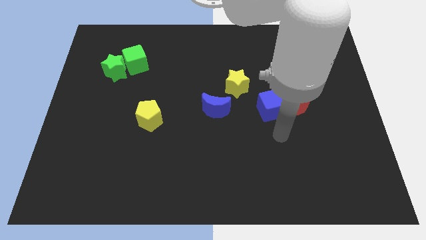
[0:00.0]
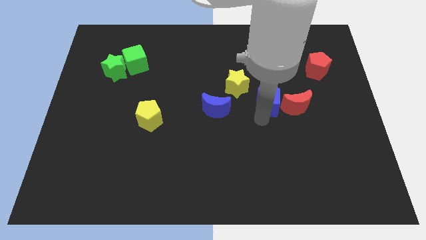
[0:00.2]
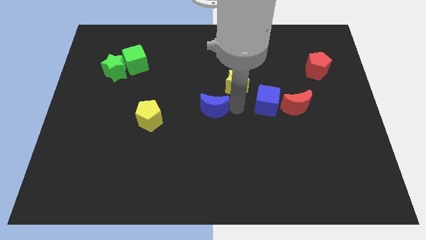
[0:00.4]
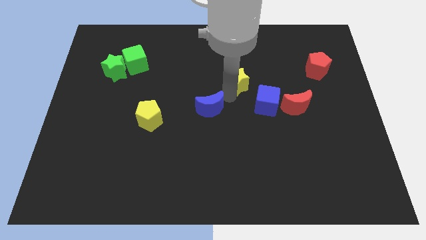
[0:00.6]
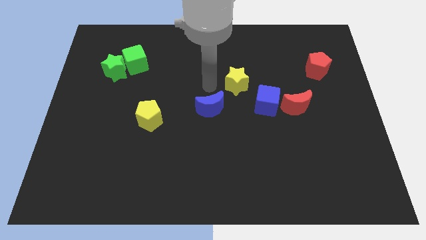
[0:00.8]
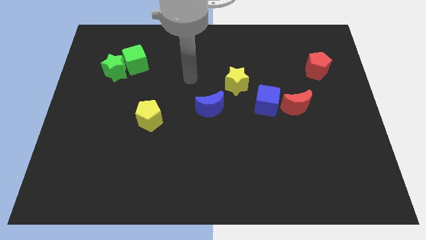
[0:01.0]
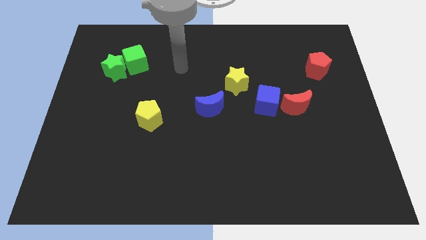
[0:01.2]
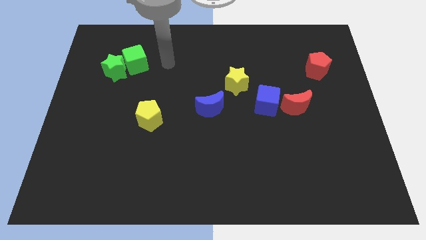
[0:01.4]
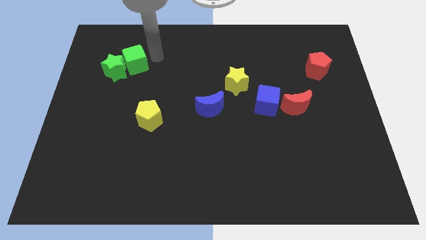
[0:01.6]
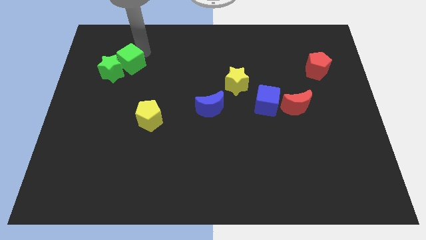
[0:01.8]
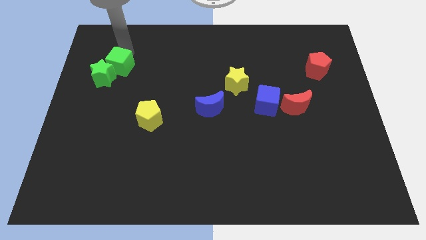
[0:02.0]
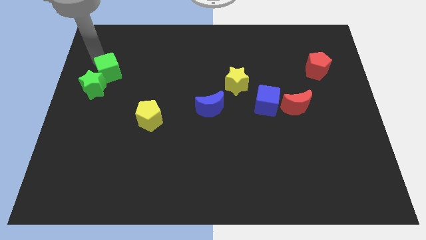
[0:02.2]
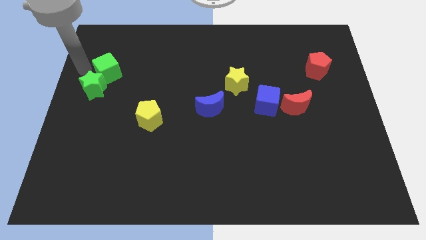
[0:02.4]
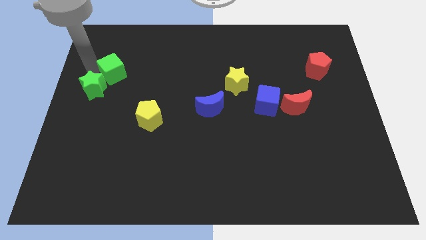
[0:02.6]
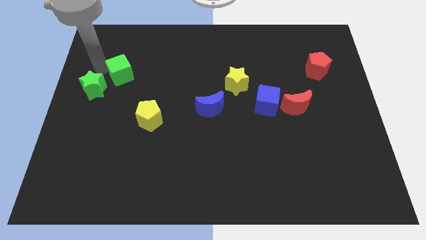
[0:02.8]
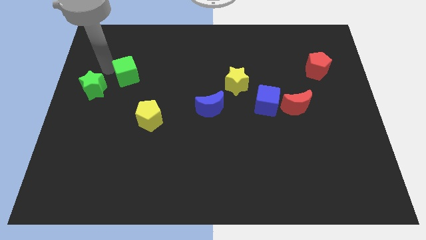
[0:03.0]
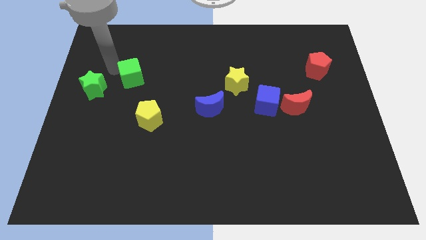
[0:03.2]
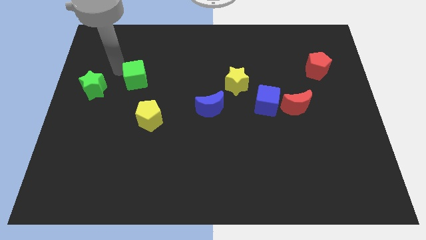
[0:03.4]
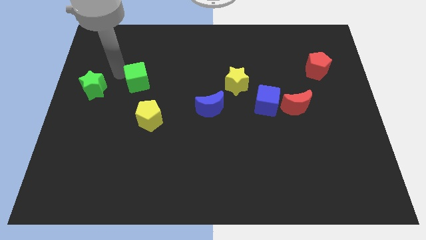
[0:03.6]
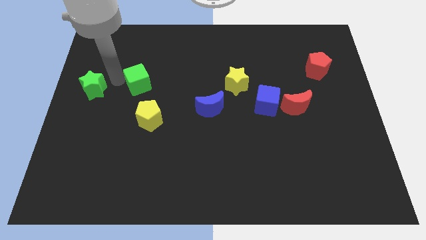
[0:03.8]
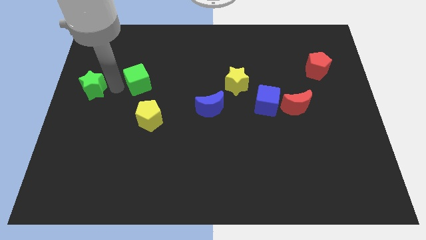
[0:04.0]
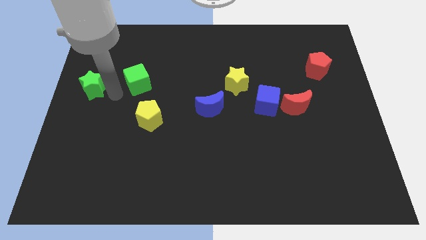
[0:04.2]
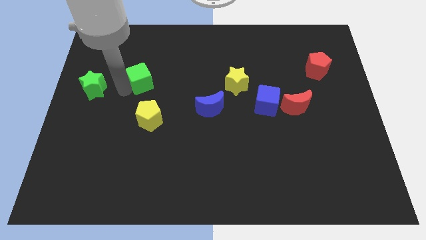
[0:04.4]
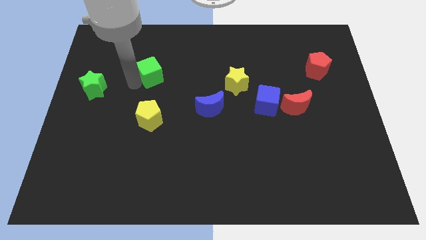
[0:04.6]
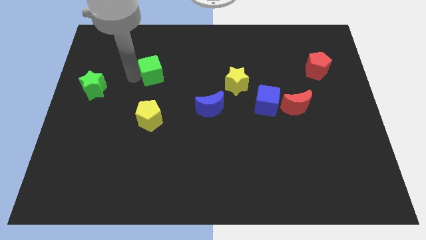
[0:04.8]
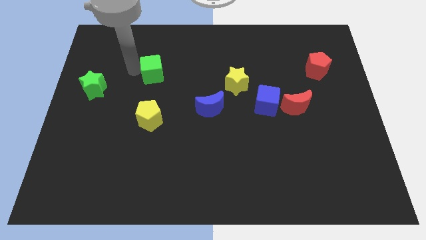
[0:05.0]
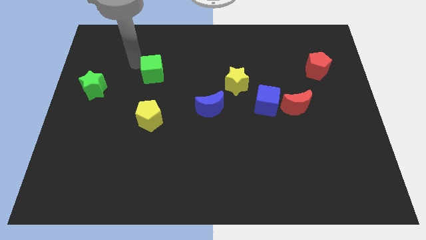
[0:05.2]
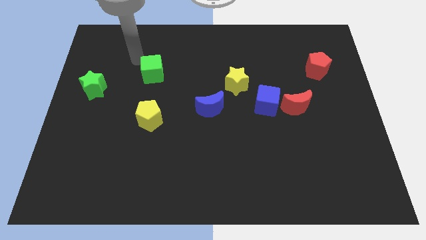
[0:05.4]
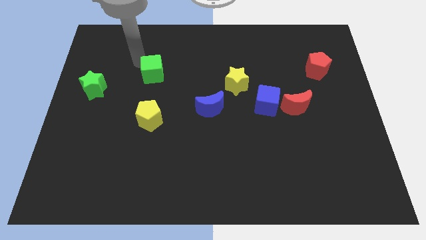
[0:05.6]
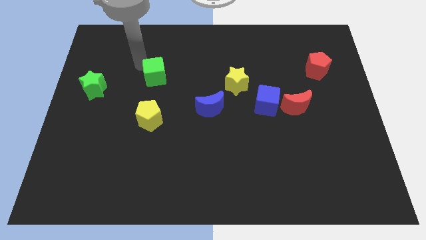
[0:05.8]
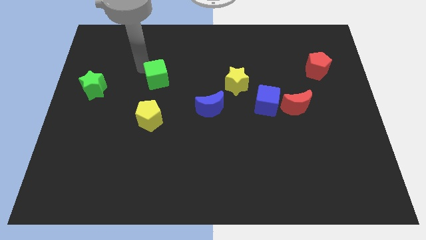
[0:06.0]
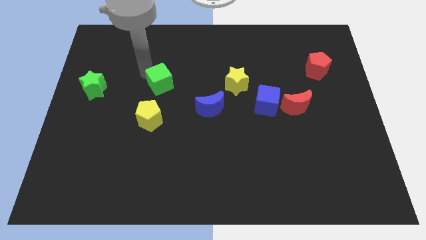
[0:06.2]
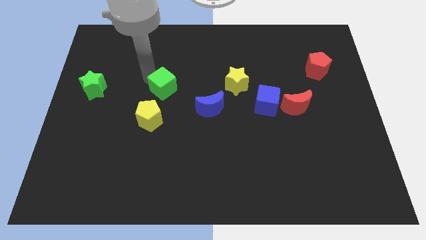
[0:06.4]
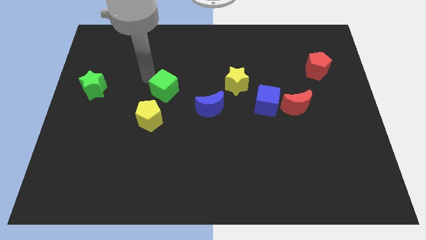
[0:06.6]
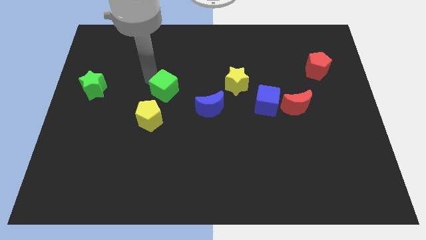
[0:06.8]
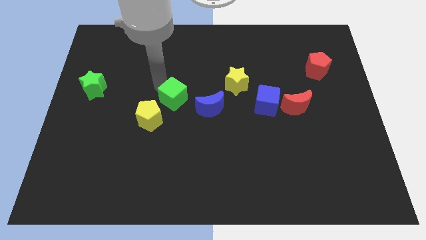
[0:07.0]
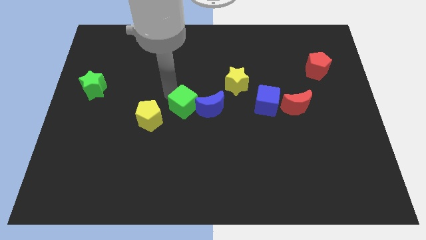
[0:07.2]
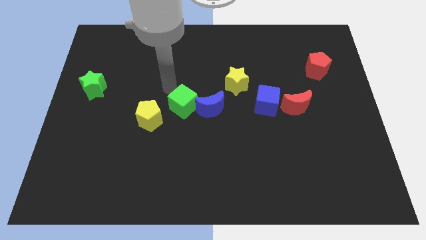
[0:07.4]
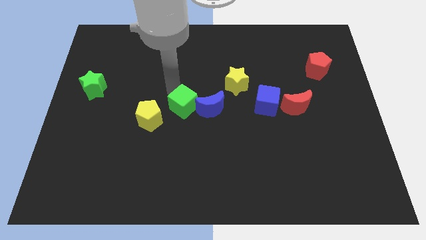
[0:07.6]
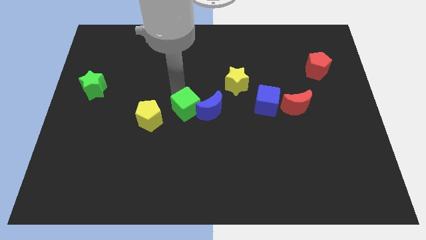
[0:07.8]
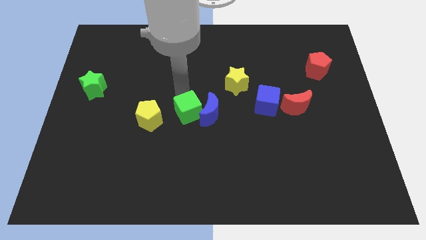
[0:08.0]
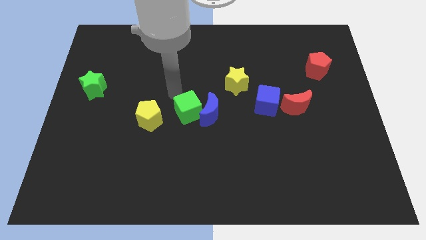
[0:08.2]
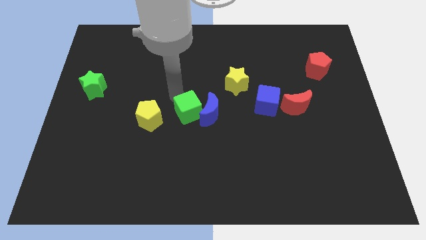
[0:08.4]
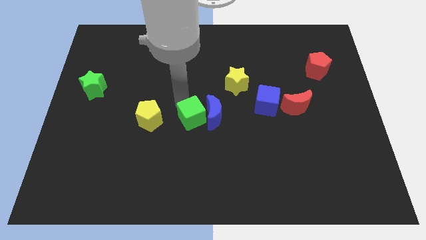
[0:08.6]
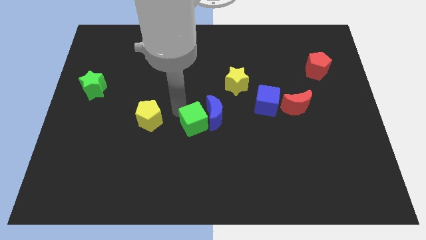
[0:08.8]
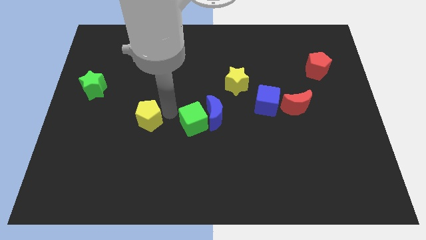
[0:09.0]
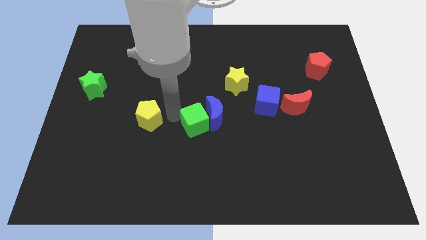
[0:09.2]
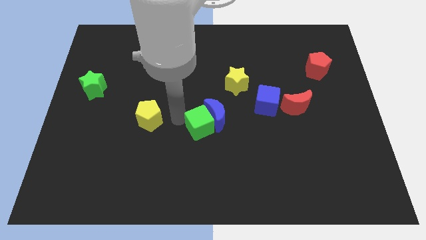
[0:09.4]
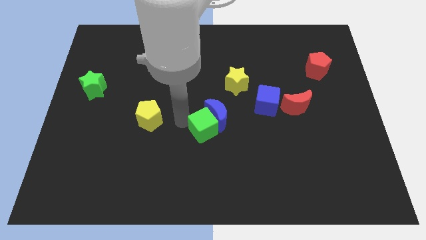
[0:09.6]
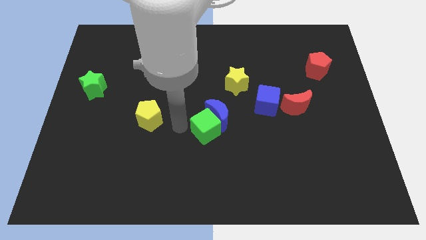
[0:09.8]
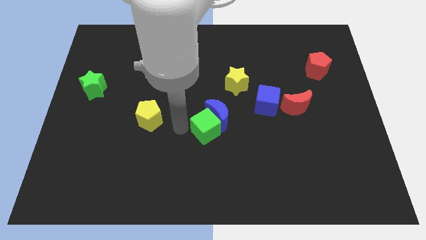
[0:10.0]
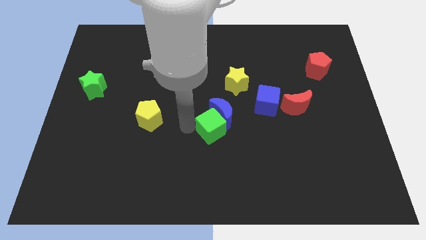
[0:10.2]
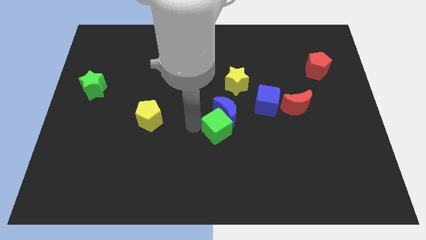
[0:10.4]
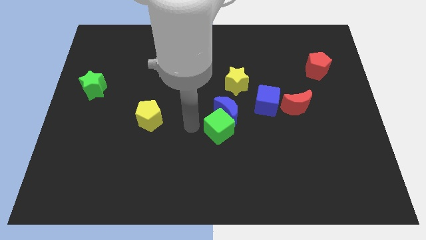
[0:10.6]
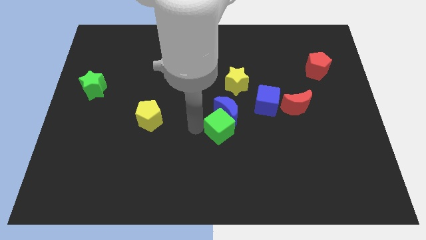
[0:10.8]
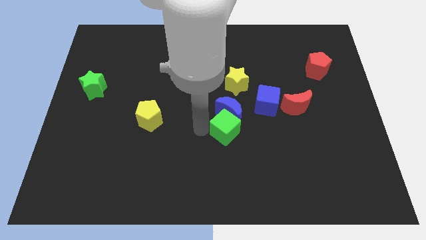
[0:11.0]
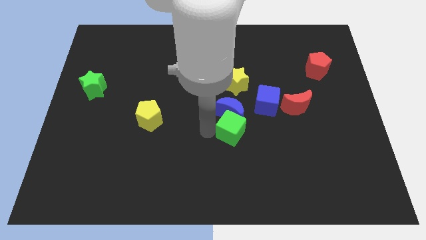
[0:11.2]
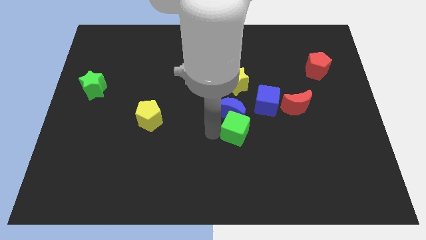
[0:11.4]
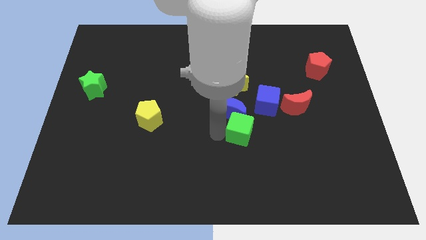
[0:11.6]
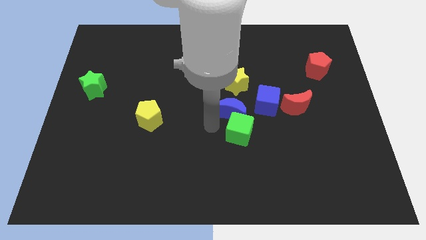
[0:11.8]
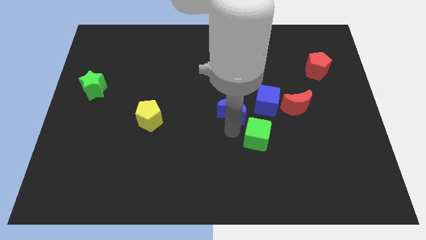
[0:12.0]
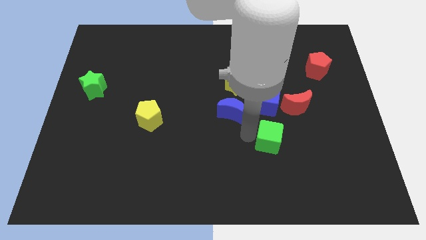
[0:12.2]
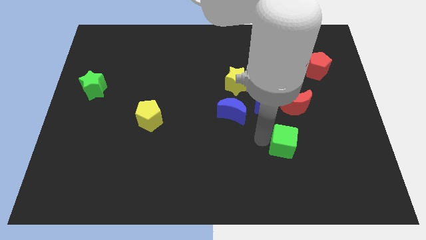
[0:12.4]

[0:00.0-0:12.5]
push the green cube to the bottom of the red moon

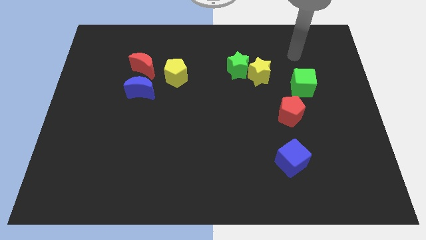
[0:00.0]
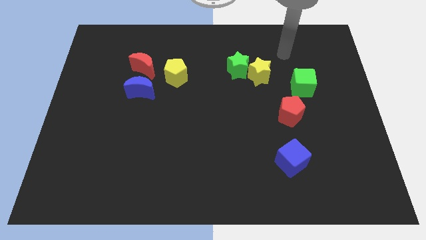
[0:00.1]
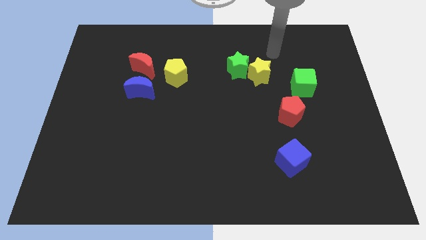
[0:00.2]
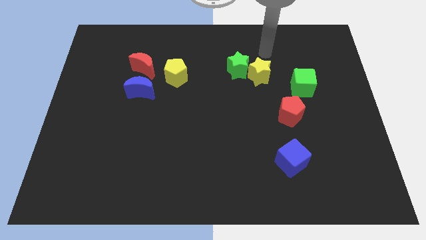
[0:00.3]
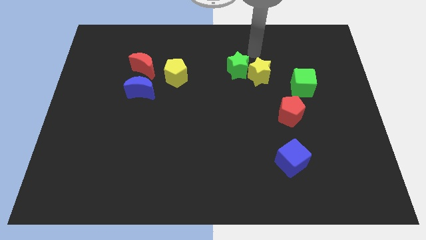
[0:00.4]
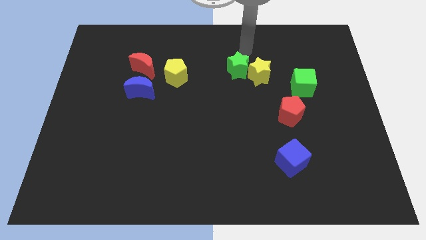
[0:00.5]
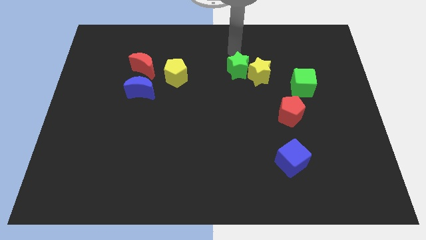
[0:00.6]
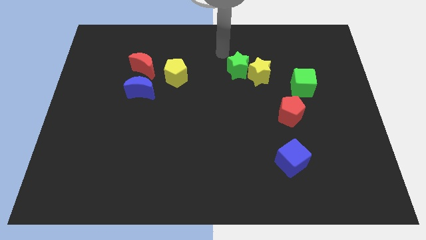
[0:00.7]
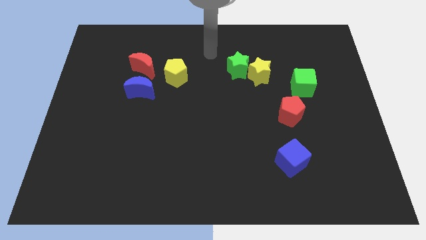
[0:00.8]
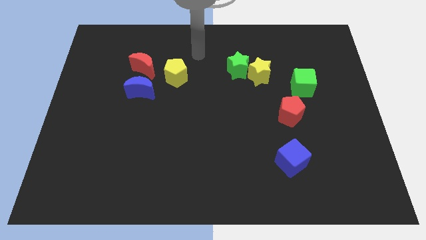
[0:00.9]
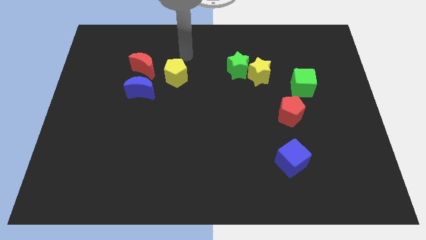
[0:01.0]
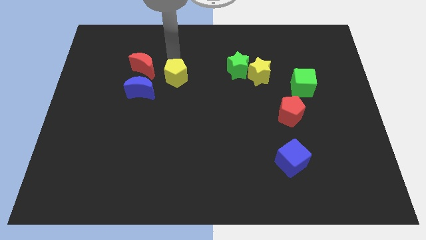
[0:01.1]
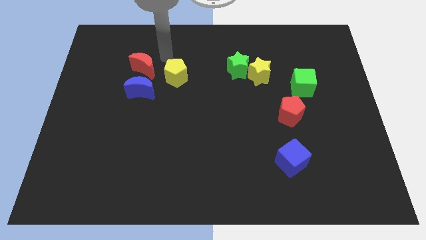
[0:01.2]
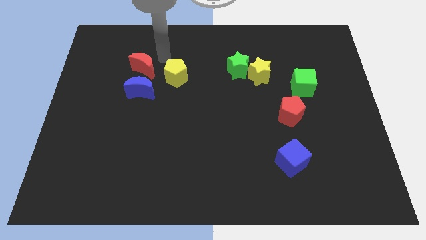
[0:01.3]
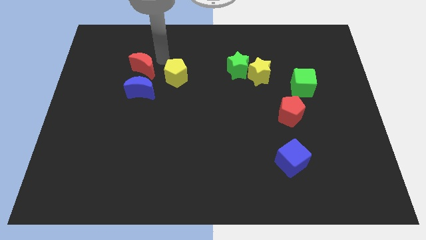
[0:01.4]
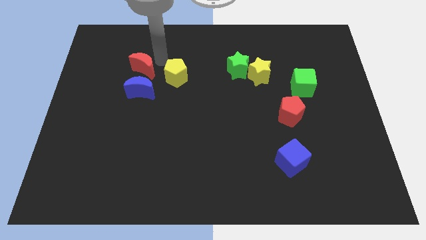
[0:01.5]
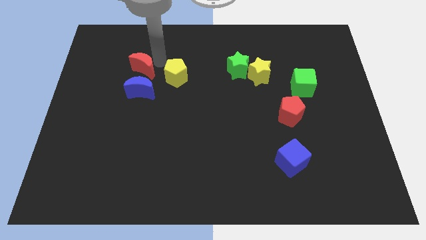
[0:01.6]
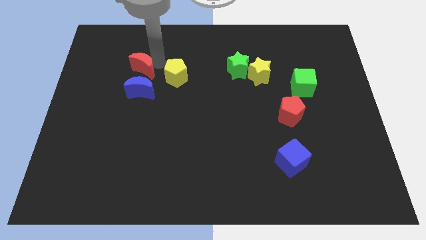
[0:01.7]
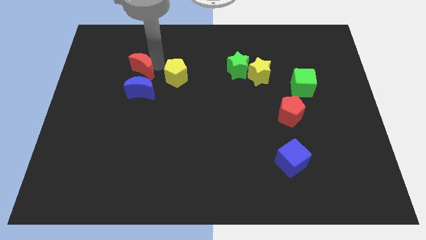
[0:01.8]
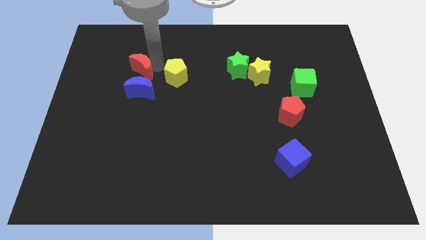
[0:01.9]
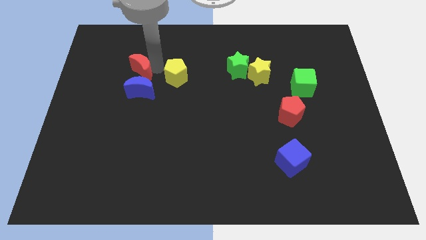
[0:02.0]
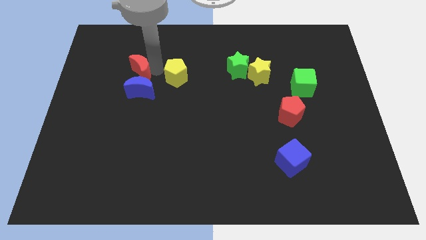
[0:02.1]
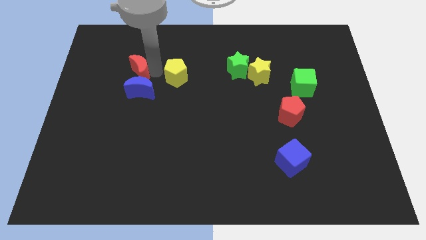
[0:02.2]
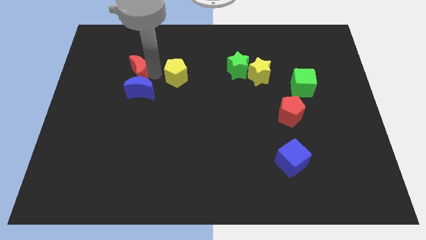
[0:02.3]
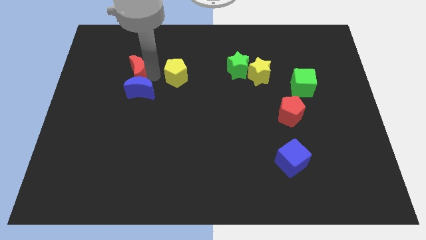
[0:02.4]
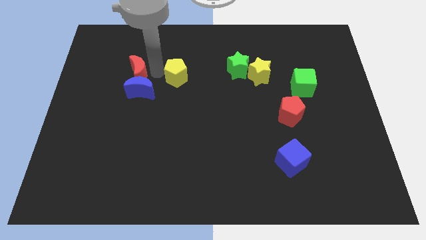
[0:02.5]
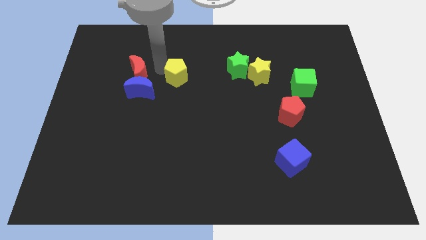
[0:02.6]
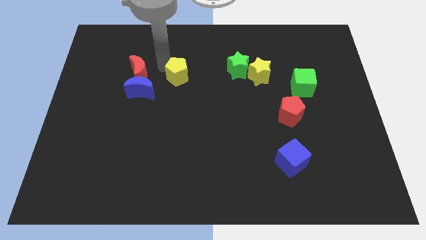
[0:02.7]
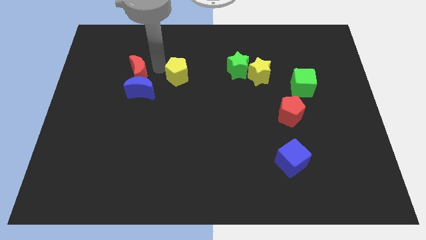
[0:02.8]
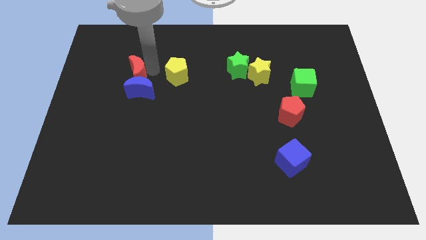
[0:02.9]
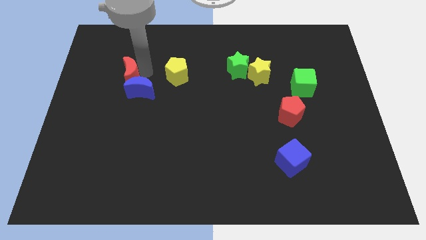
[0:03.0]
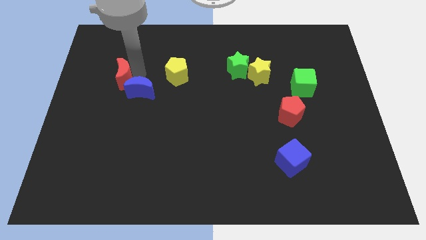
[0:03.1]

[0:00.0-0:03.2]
slide the red moon left of the blue moon
